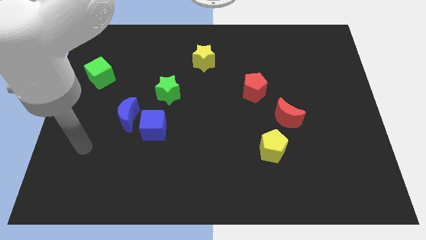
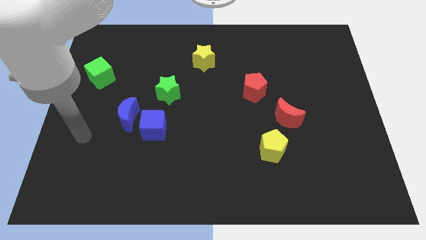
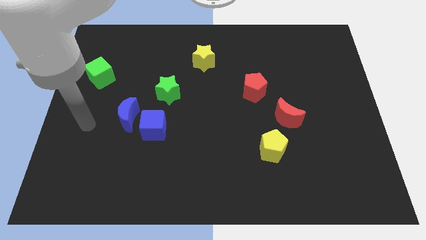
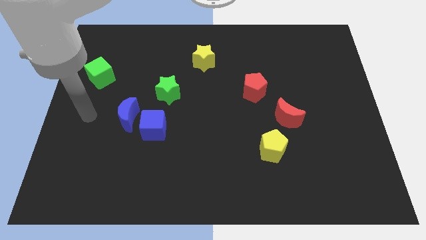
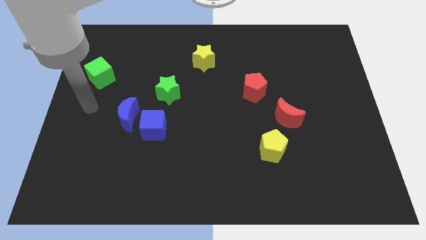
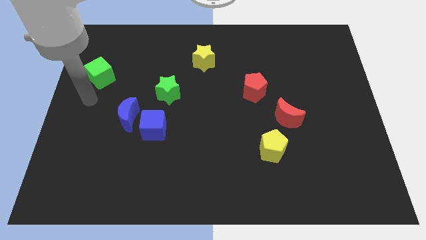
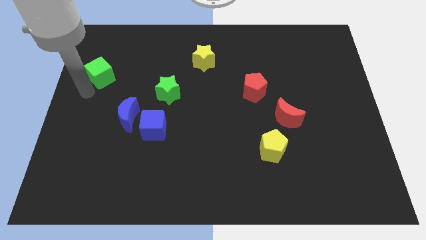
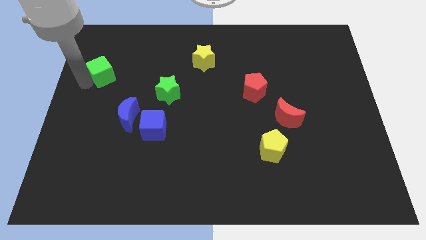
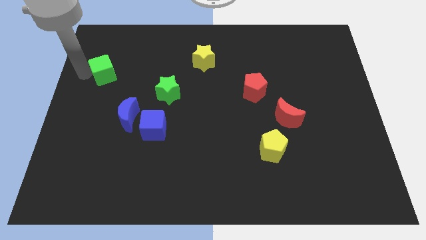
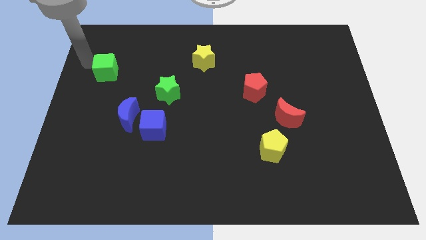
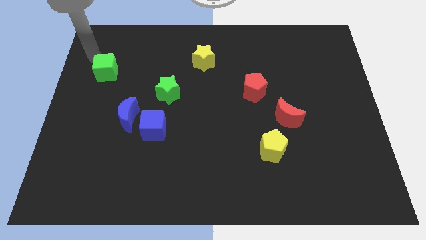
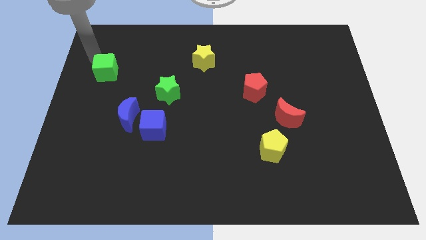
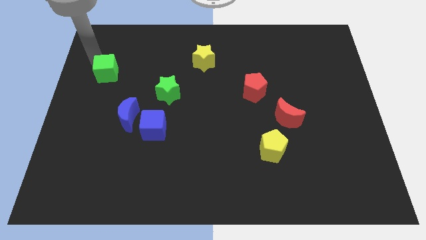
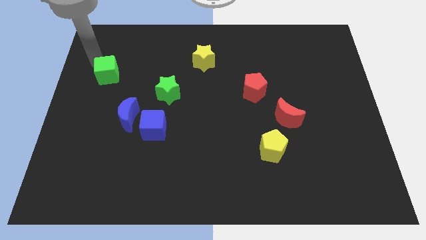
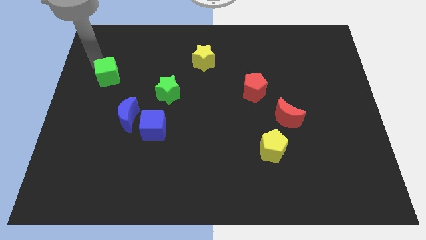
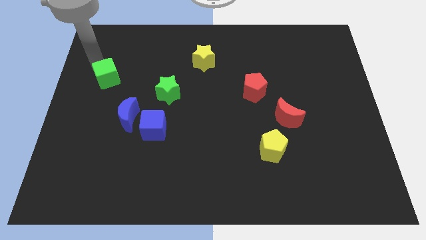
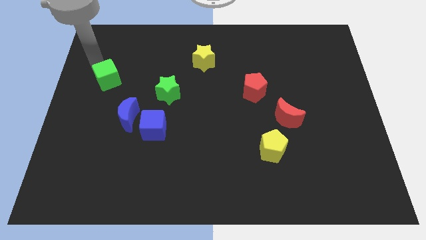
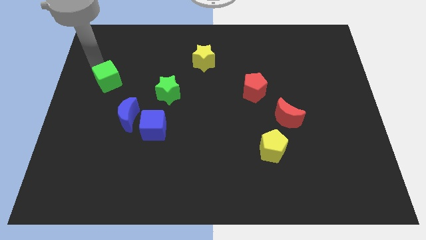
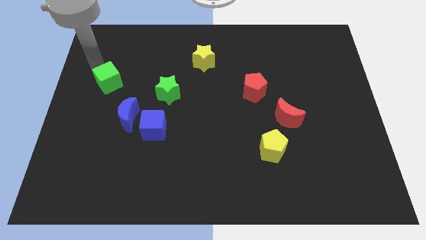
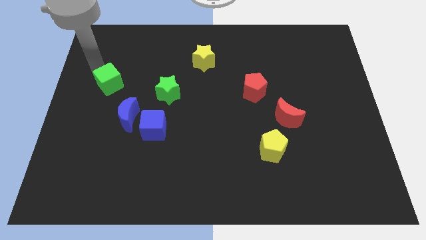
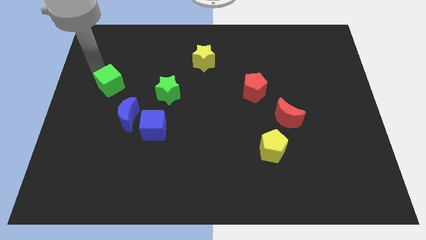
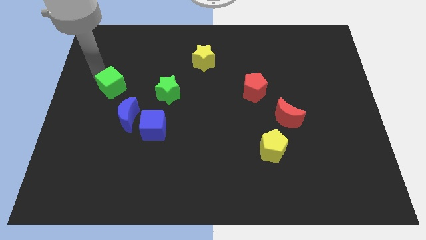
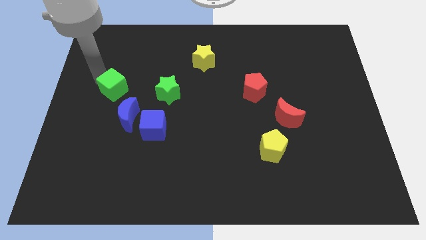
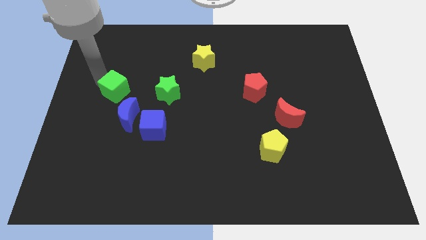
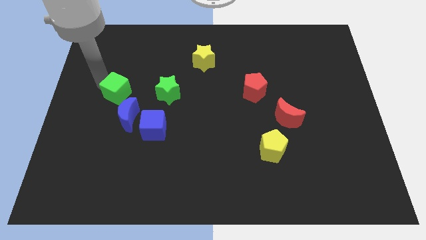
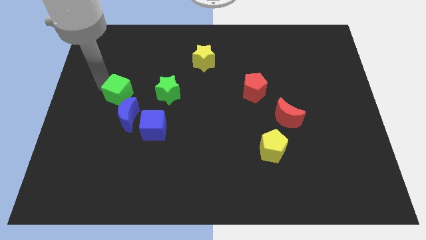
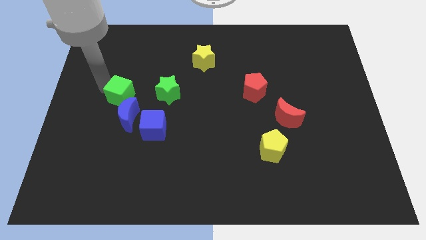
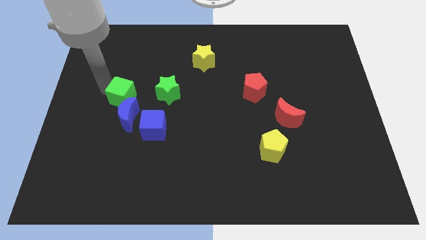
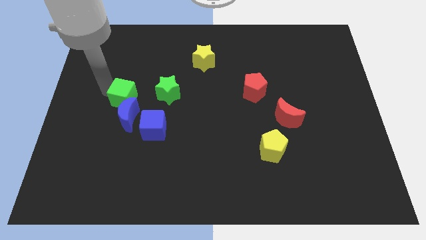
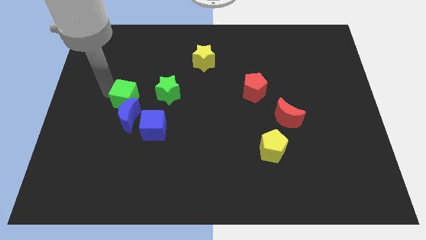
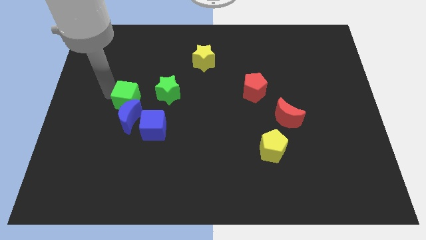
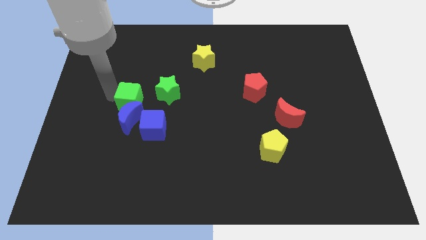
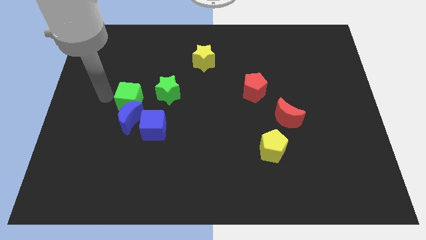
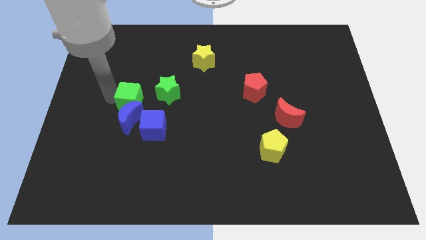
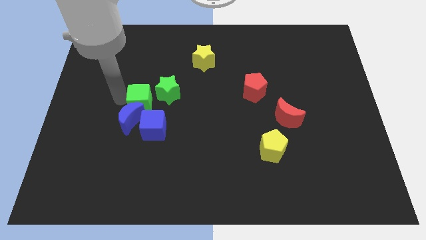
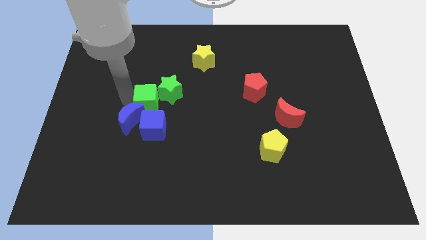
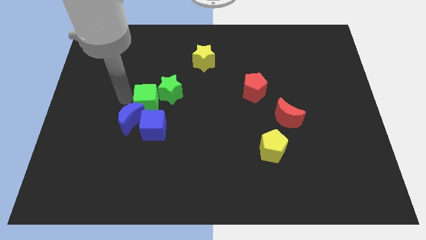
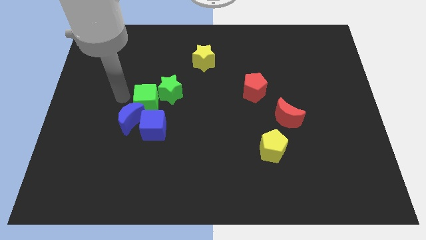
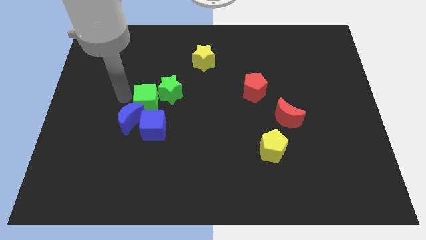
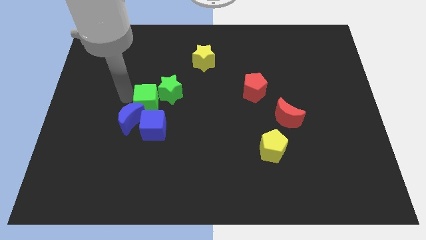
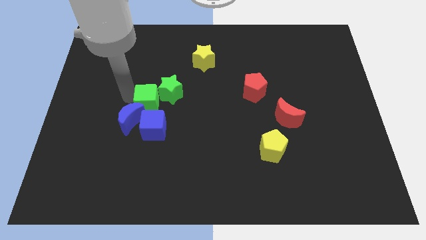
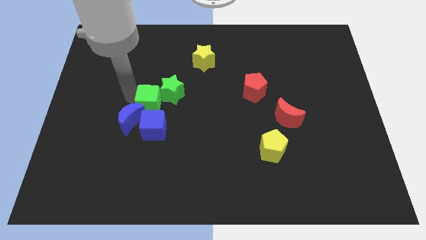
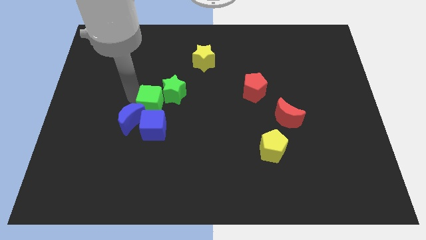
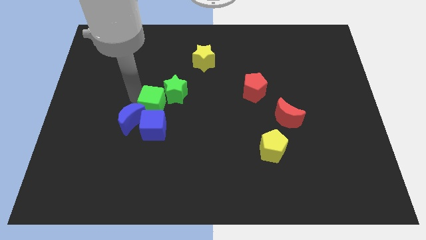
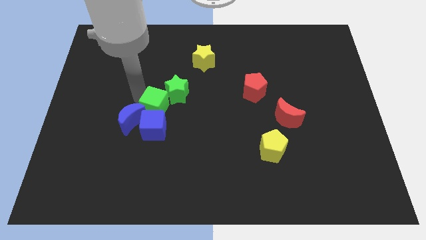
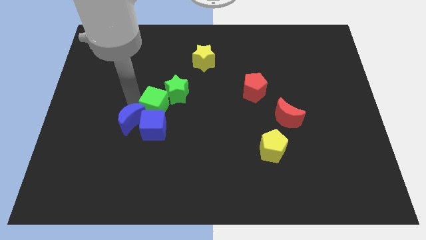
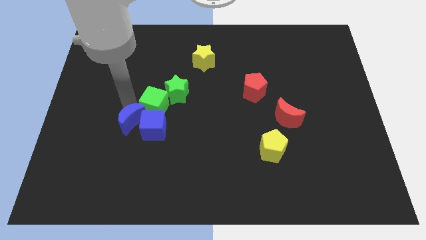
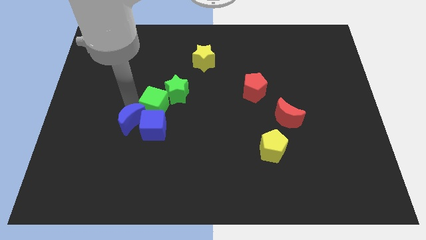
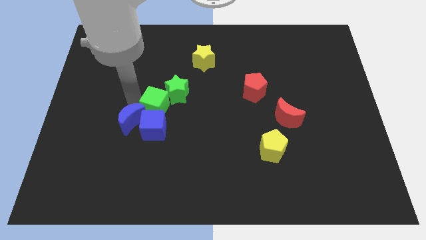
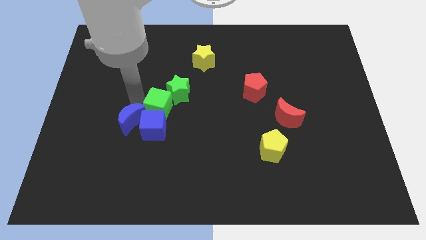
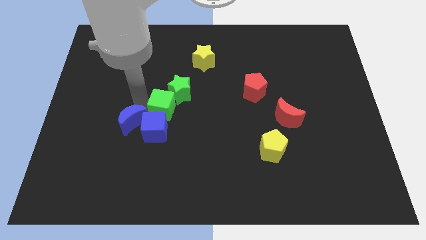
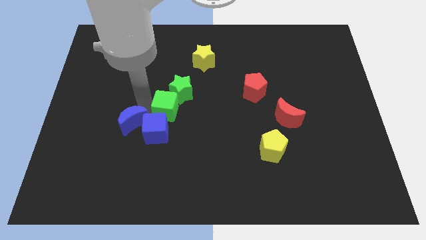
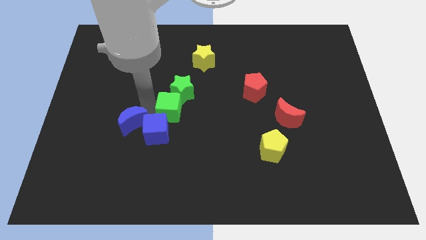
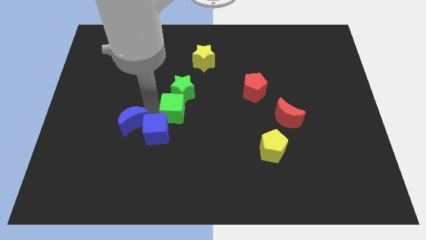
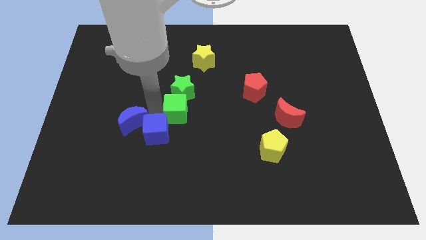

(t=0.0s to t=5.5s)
put the green cube to the bottom right of the green star

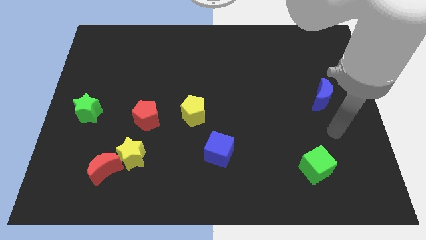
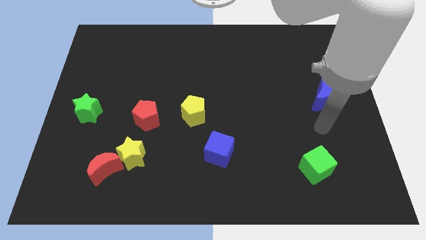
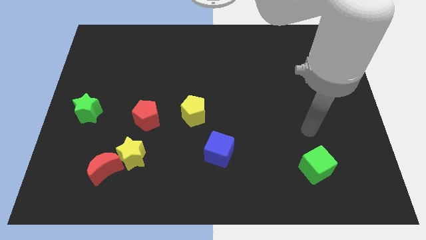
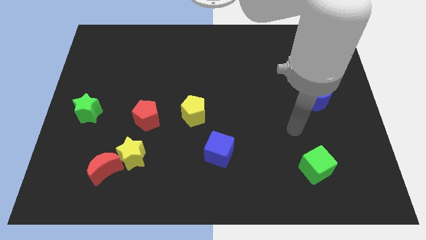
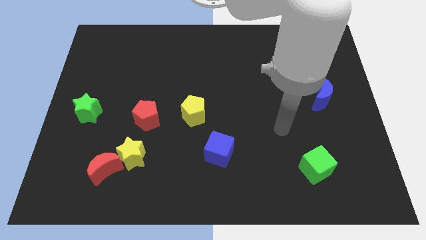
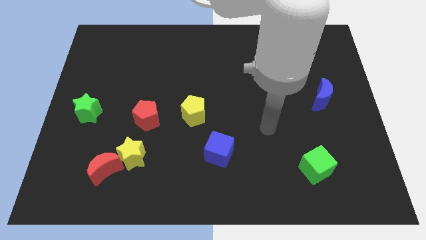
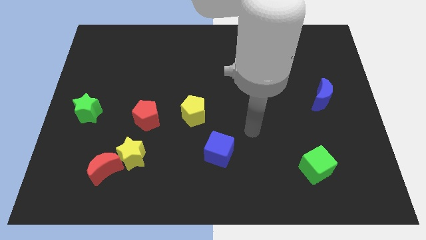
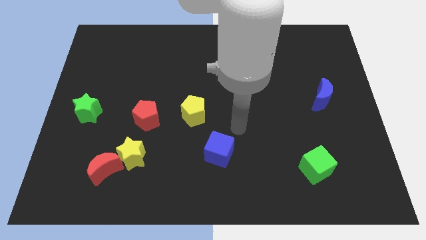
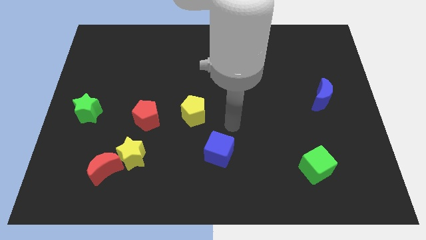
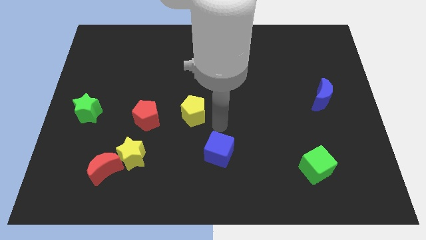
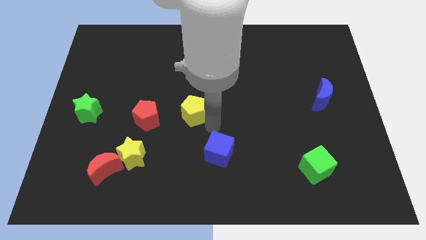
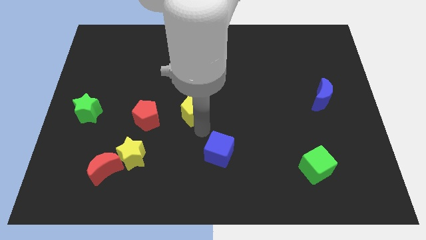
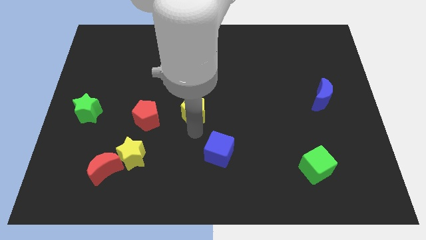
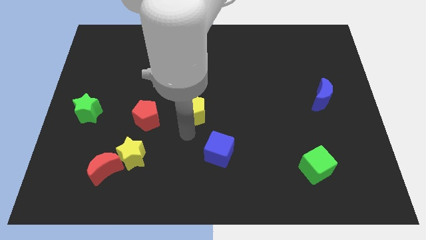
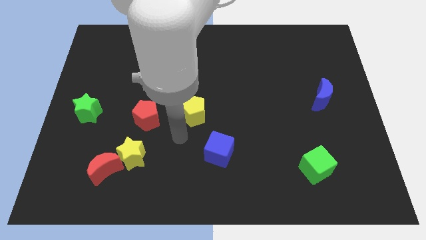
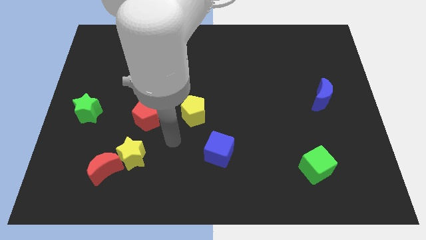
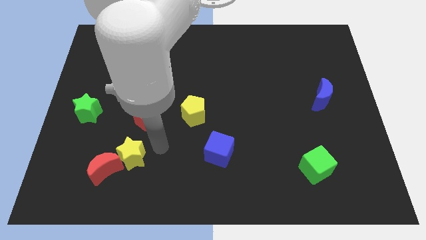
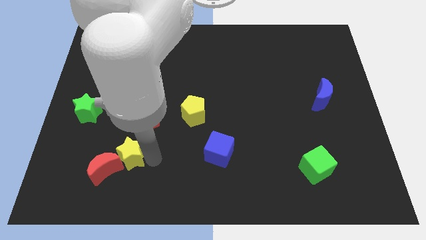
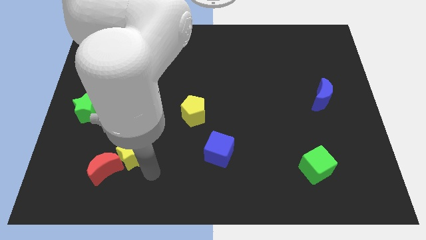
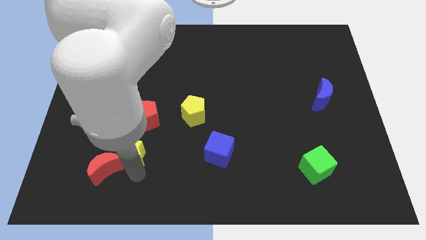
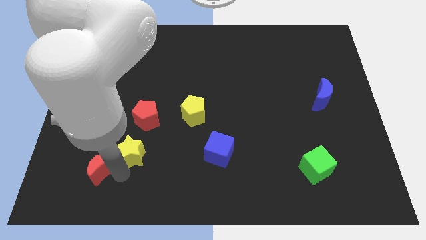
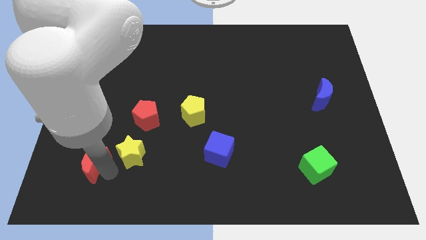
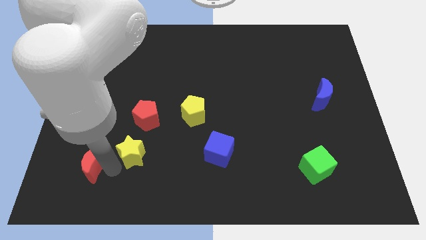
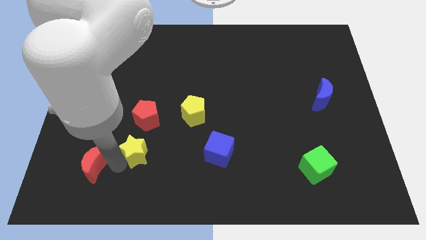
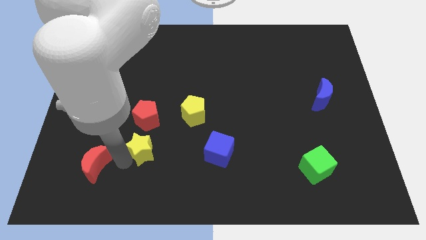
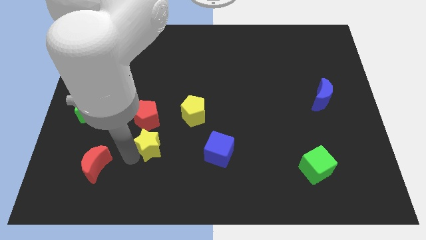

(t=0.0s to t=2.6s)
slide the yellow star diagonally down and to the left of the yellow pentagon
